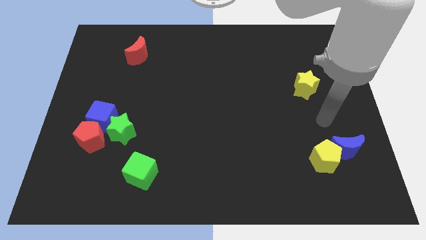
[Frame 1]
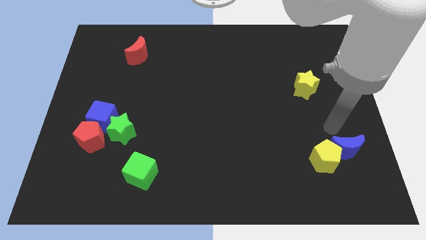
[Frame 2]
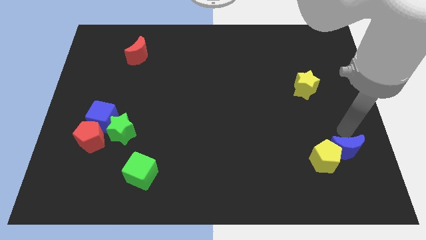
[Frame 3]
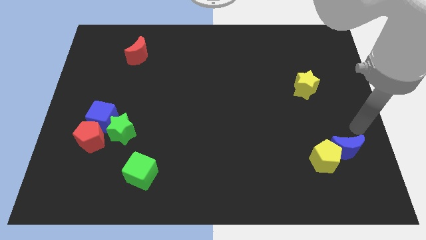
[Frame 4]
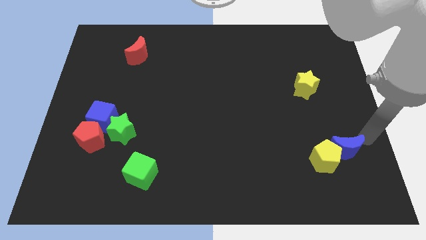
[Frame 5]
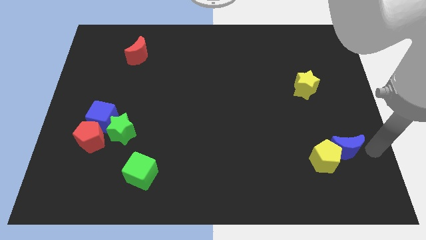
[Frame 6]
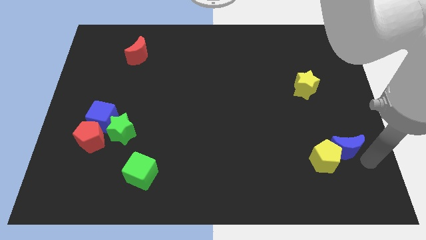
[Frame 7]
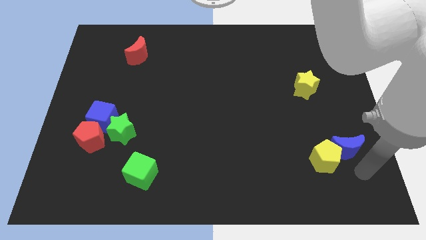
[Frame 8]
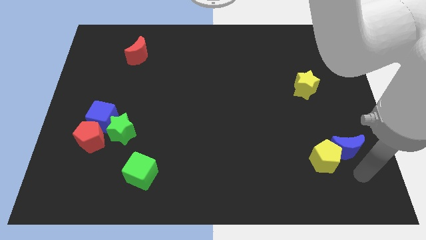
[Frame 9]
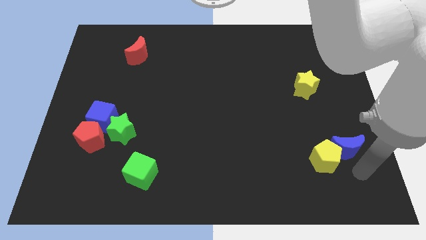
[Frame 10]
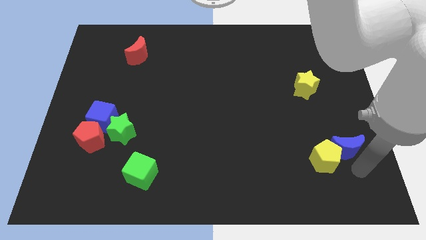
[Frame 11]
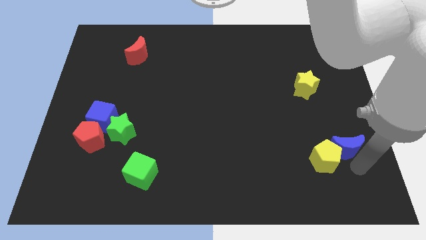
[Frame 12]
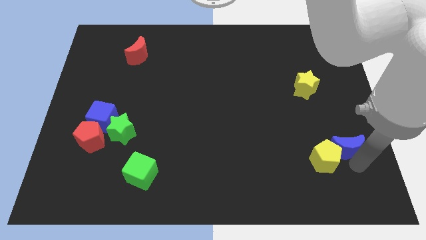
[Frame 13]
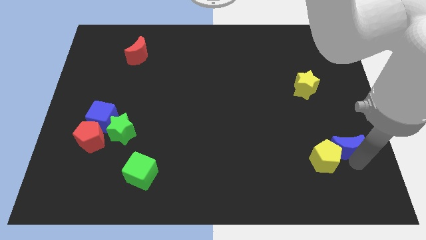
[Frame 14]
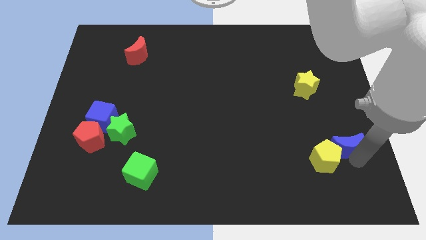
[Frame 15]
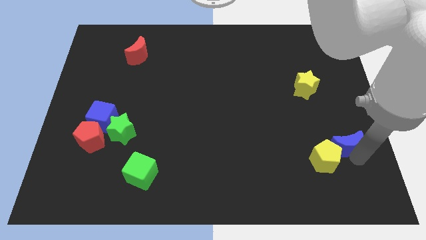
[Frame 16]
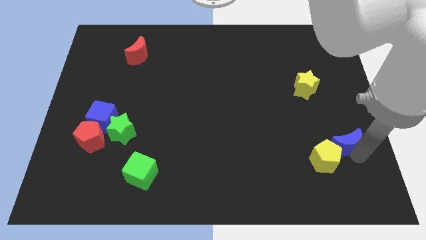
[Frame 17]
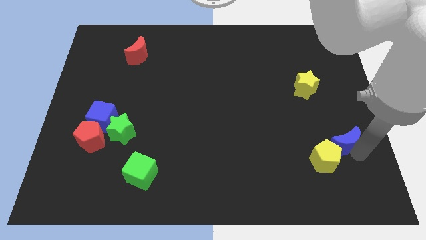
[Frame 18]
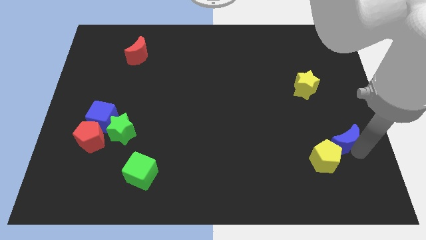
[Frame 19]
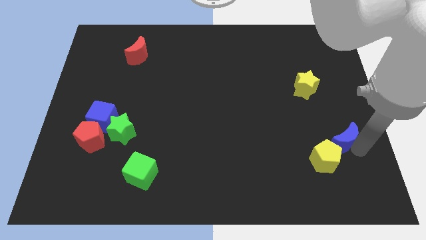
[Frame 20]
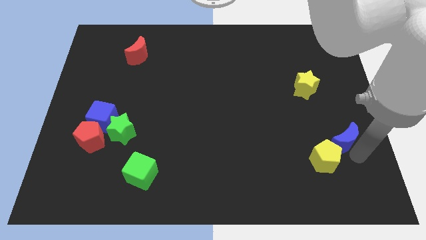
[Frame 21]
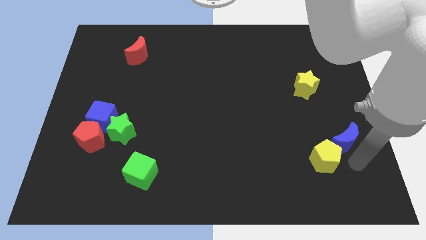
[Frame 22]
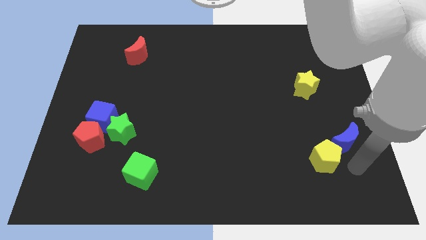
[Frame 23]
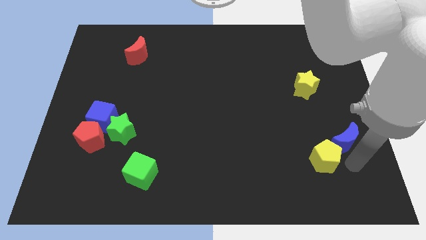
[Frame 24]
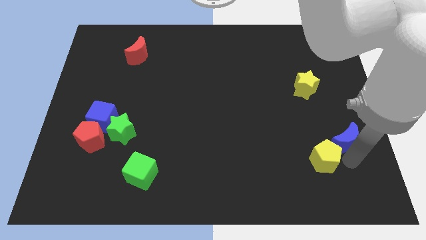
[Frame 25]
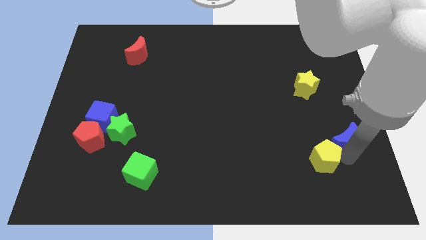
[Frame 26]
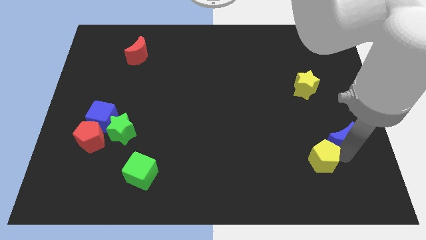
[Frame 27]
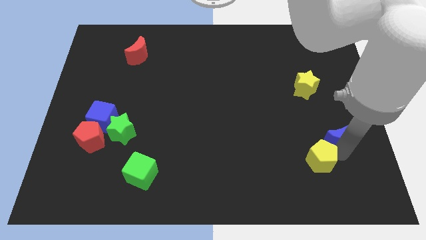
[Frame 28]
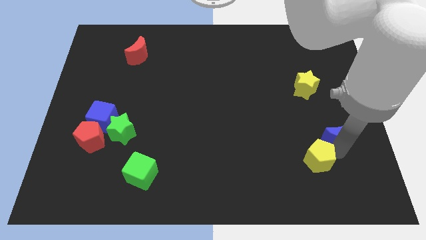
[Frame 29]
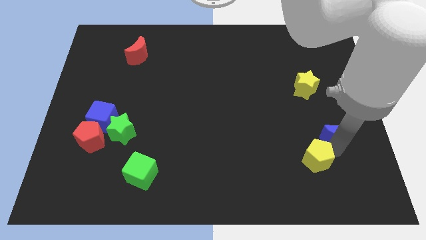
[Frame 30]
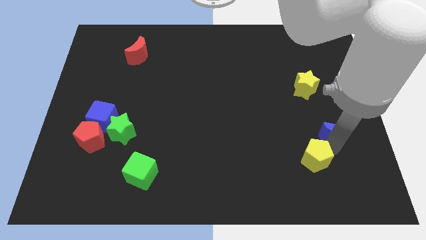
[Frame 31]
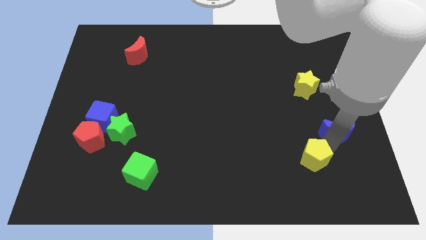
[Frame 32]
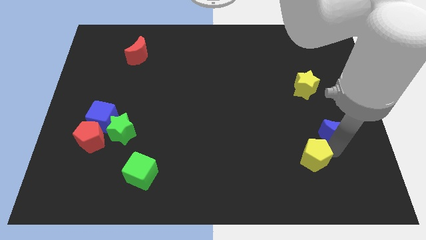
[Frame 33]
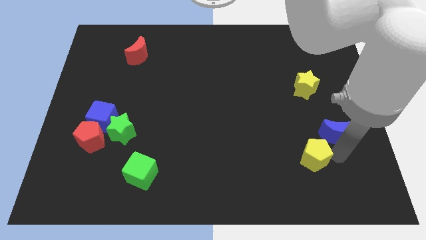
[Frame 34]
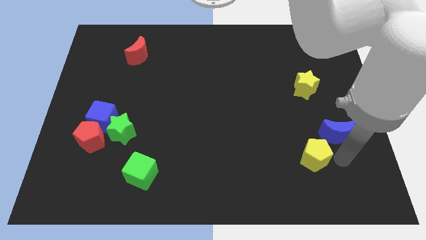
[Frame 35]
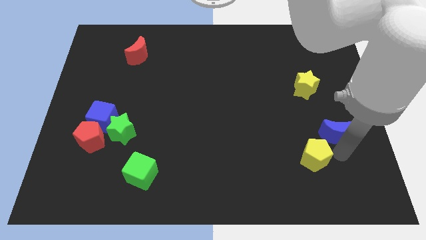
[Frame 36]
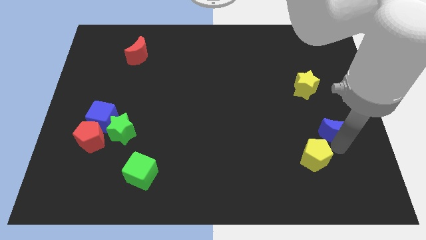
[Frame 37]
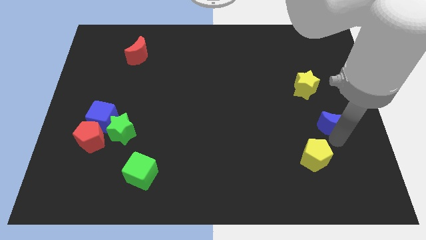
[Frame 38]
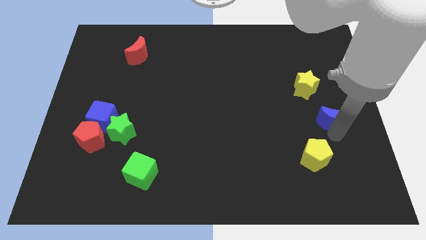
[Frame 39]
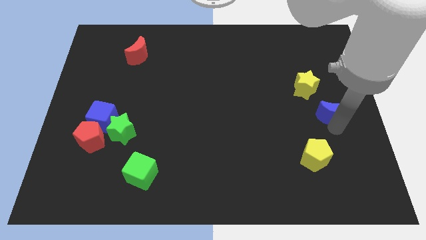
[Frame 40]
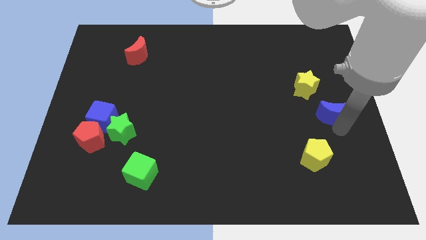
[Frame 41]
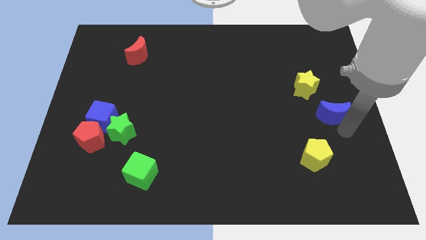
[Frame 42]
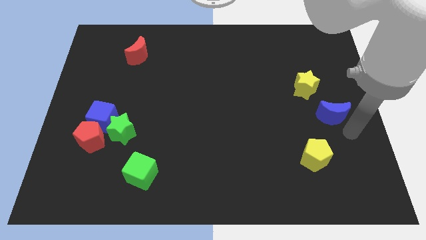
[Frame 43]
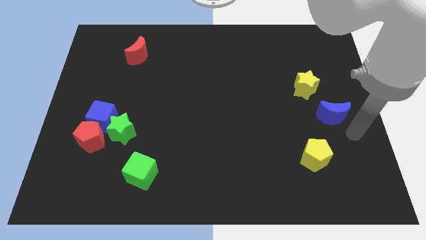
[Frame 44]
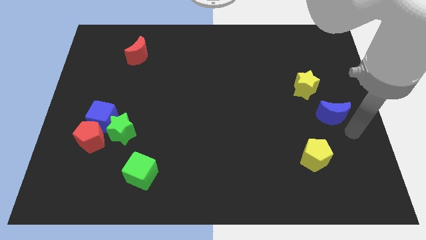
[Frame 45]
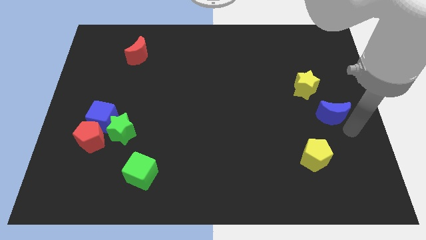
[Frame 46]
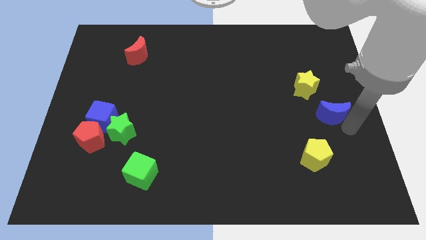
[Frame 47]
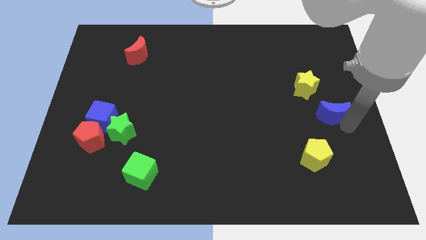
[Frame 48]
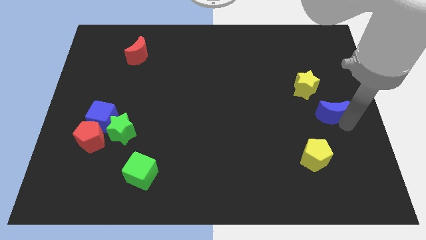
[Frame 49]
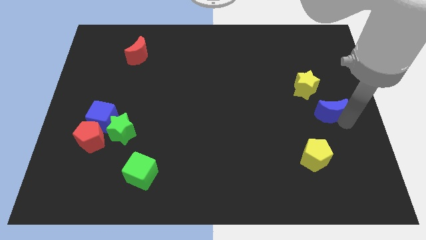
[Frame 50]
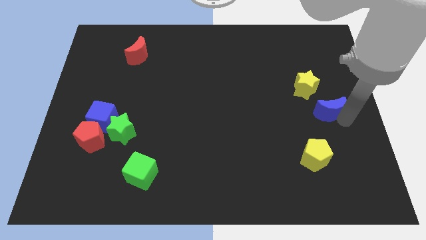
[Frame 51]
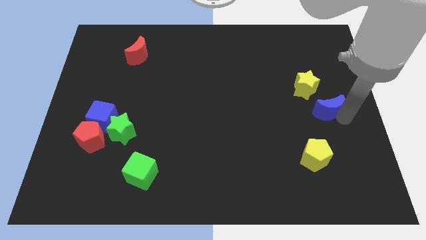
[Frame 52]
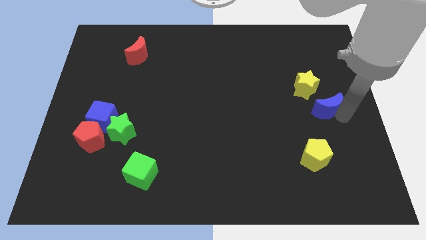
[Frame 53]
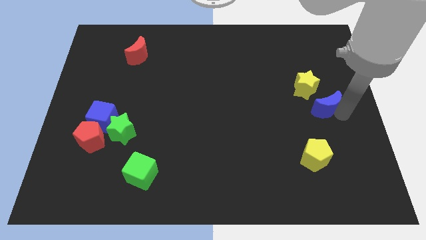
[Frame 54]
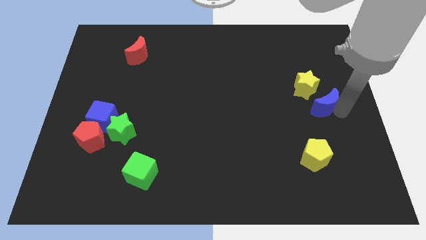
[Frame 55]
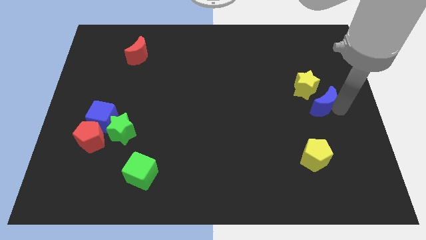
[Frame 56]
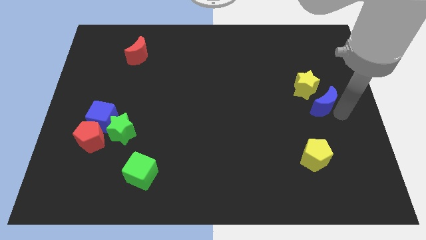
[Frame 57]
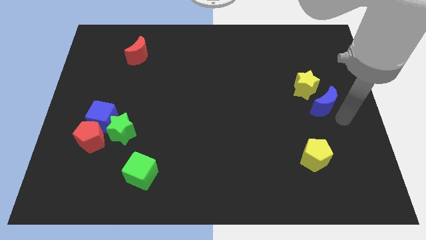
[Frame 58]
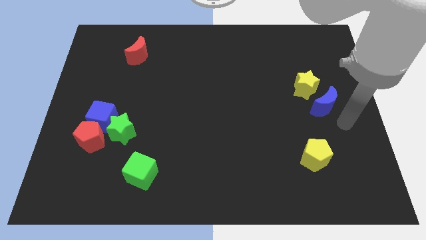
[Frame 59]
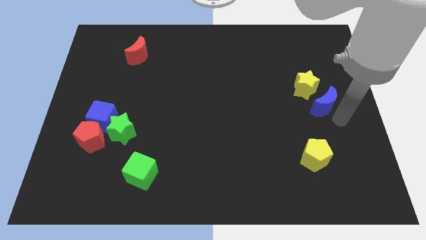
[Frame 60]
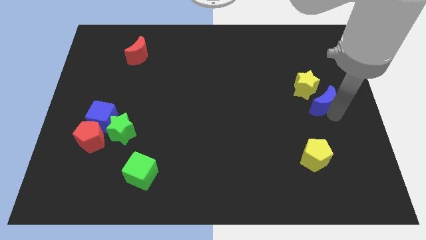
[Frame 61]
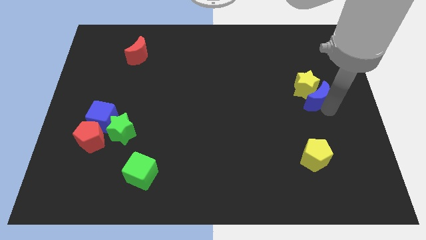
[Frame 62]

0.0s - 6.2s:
push the blue moon to the yellow star
